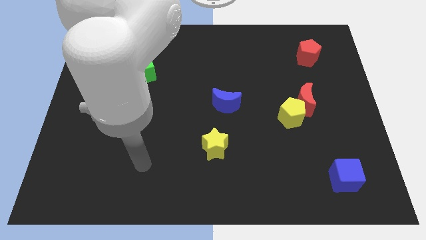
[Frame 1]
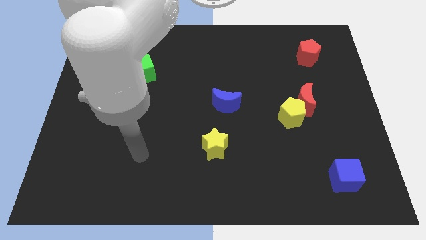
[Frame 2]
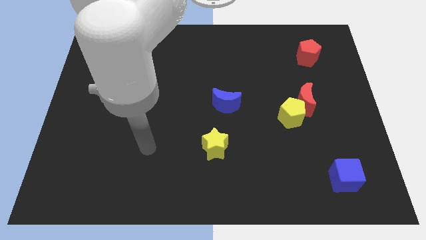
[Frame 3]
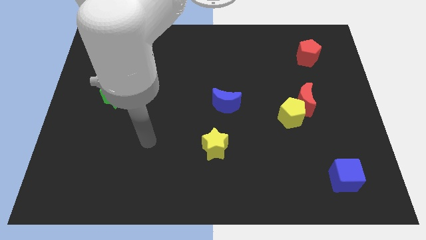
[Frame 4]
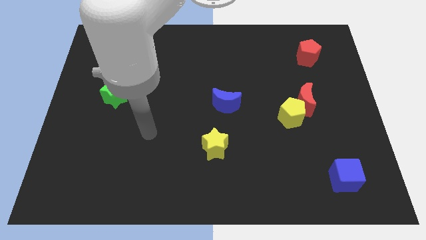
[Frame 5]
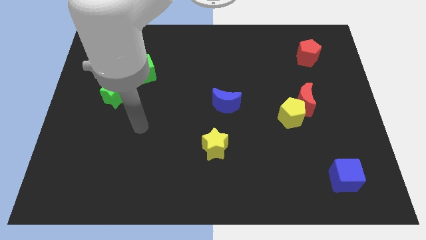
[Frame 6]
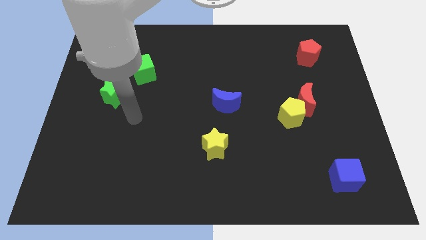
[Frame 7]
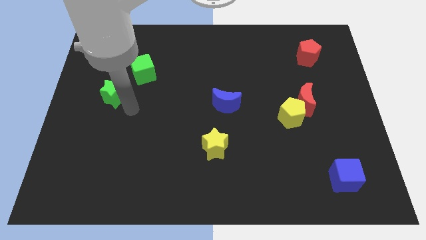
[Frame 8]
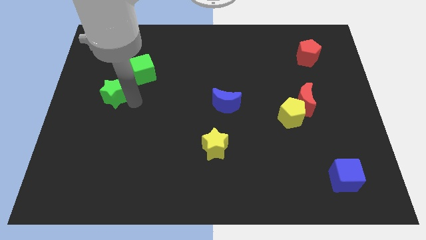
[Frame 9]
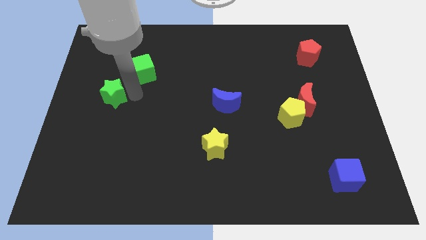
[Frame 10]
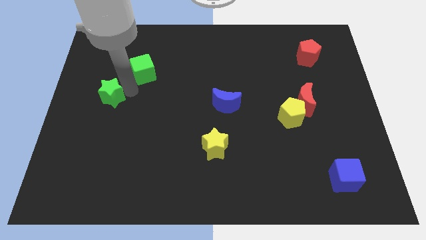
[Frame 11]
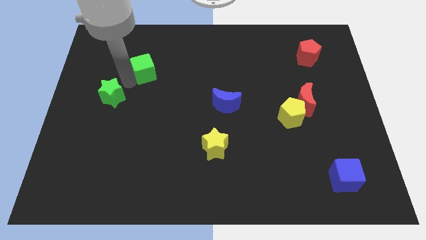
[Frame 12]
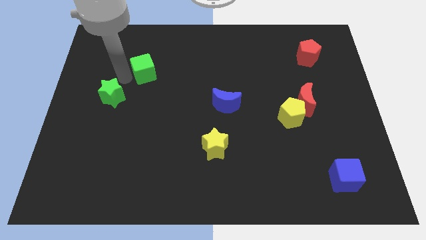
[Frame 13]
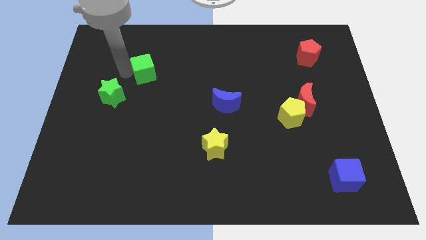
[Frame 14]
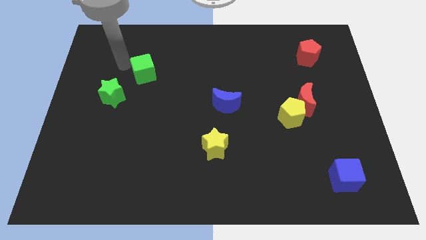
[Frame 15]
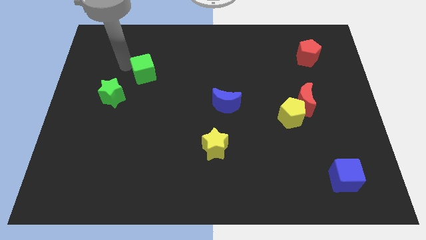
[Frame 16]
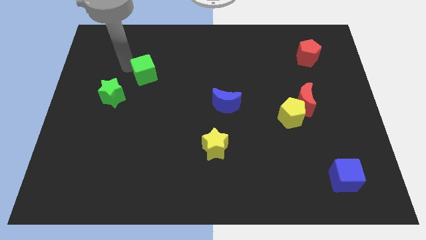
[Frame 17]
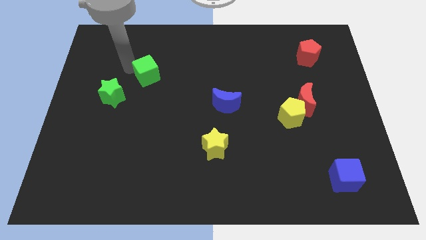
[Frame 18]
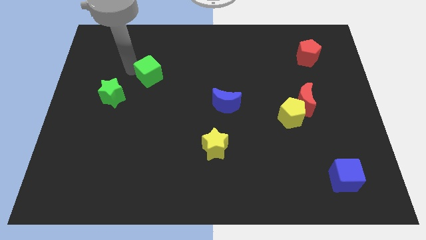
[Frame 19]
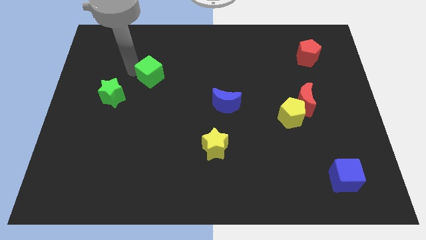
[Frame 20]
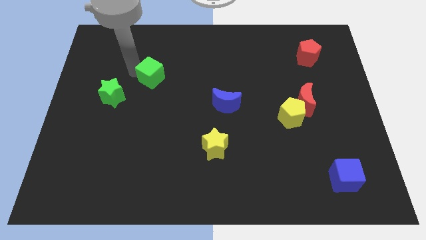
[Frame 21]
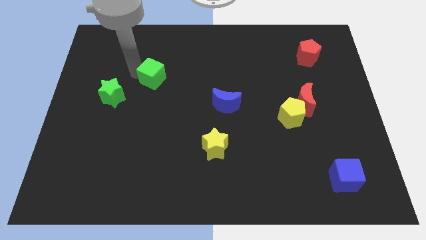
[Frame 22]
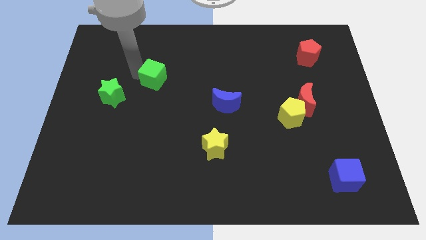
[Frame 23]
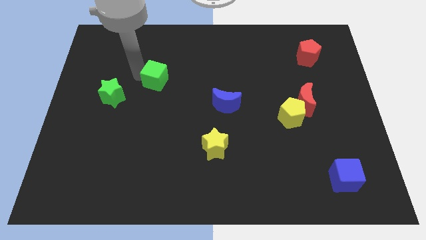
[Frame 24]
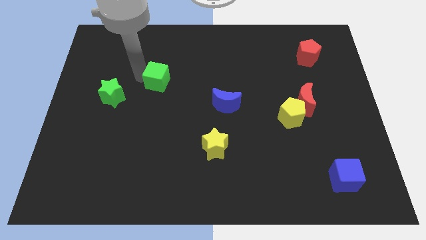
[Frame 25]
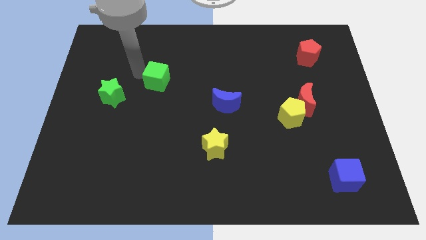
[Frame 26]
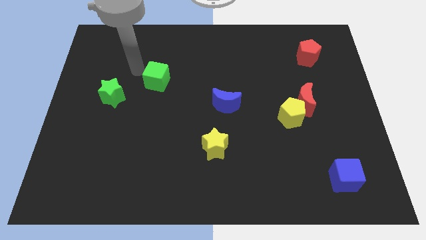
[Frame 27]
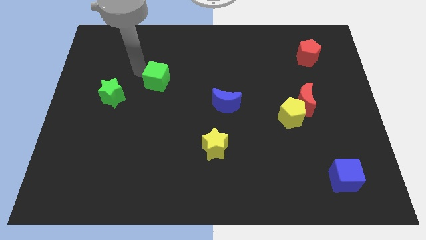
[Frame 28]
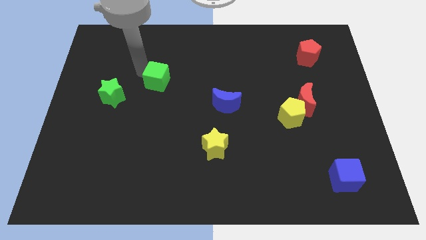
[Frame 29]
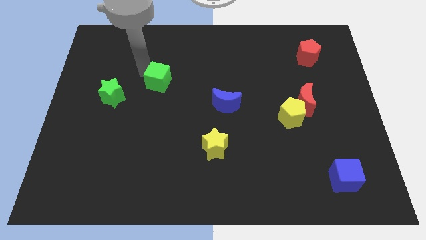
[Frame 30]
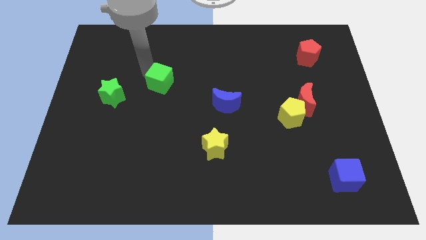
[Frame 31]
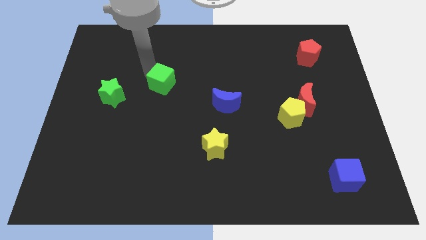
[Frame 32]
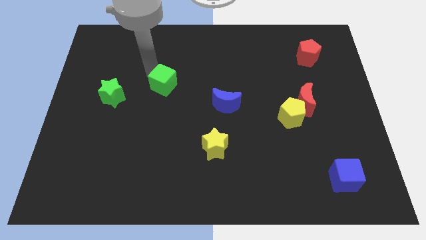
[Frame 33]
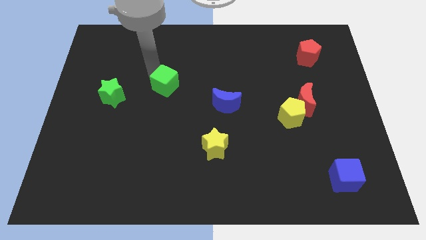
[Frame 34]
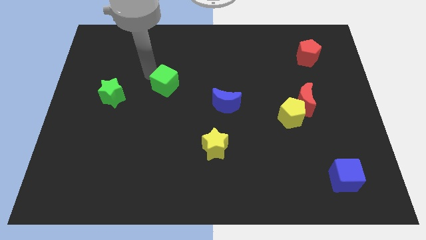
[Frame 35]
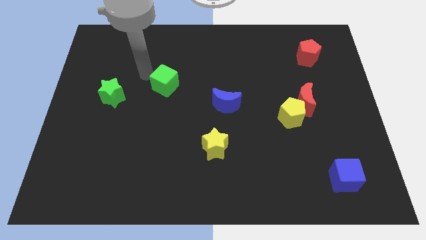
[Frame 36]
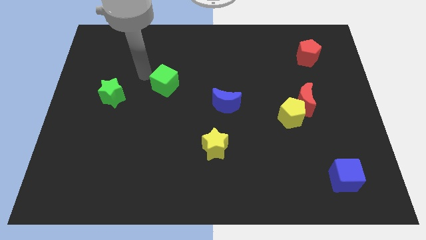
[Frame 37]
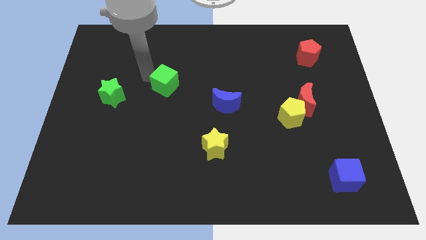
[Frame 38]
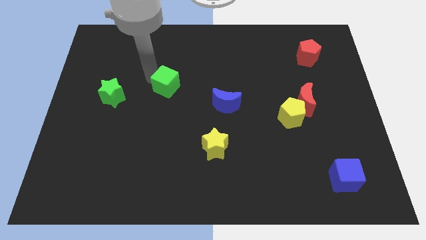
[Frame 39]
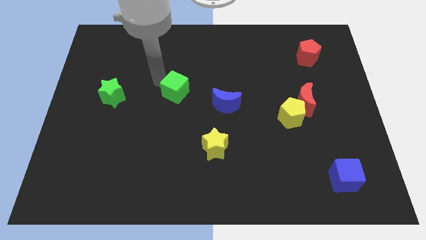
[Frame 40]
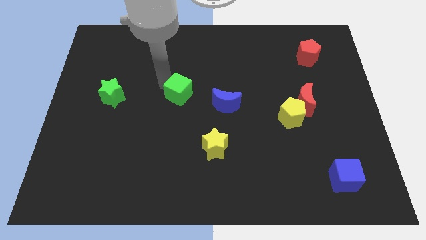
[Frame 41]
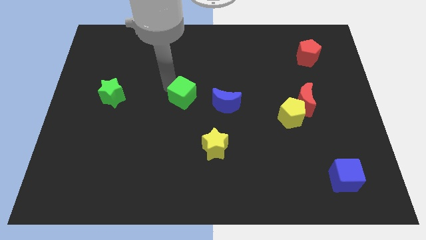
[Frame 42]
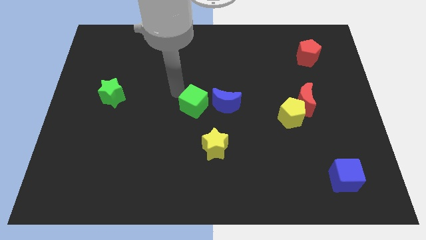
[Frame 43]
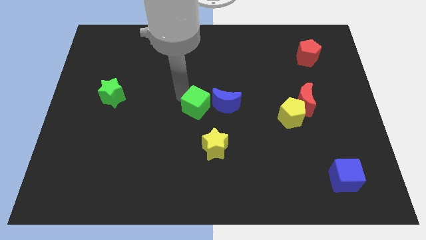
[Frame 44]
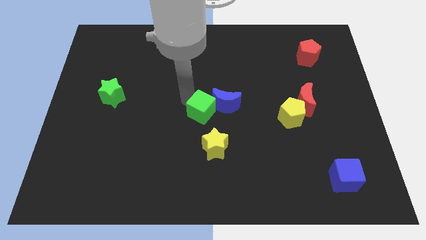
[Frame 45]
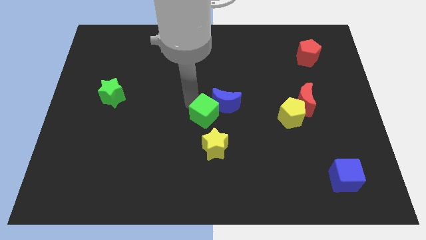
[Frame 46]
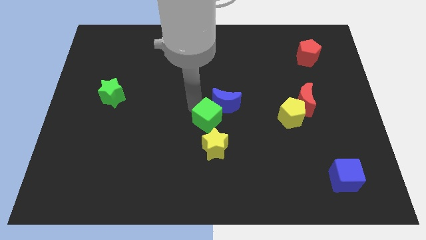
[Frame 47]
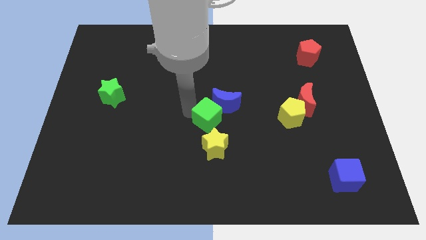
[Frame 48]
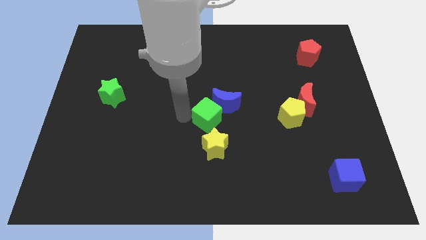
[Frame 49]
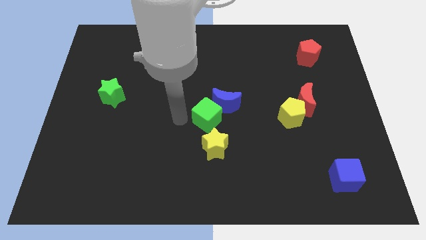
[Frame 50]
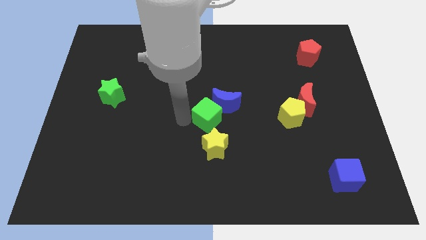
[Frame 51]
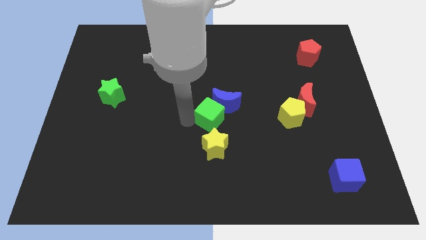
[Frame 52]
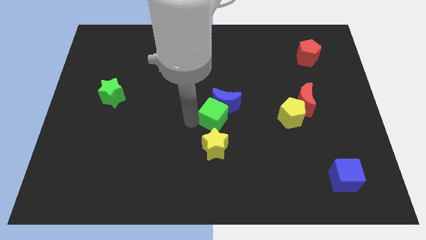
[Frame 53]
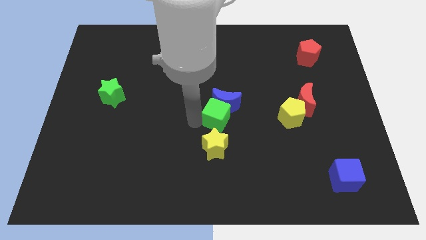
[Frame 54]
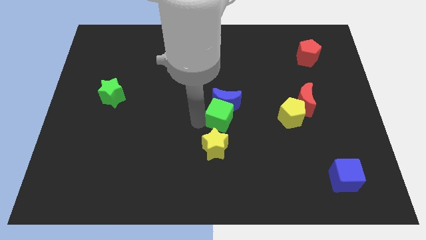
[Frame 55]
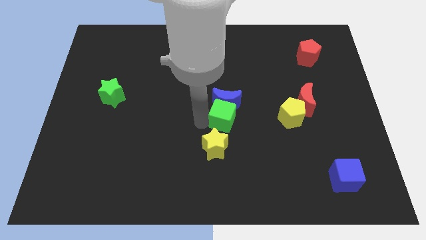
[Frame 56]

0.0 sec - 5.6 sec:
slide the green cube to the left side of the yellow pentagon

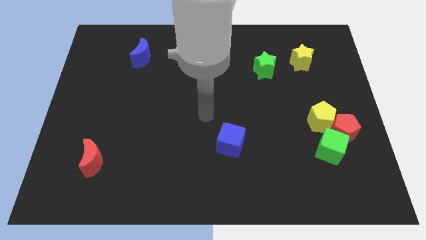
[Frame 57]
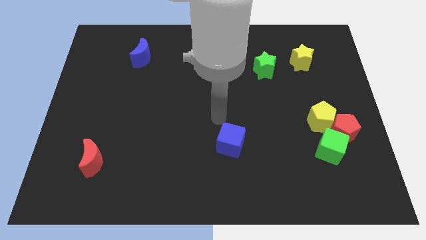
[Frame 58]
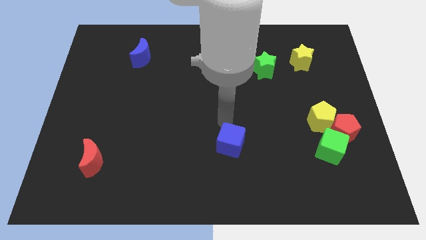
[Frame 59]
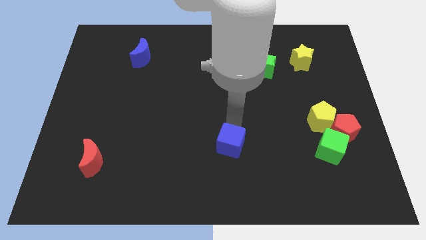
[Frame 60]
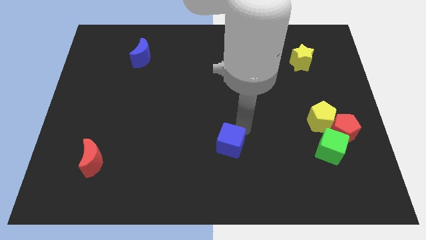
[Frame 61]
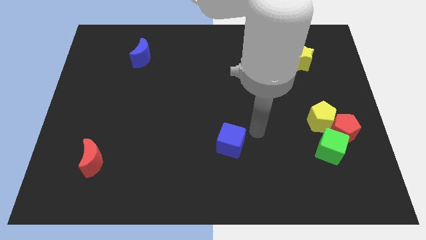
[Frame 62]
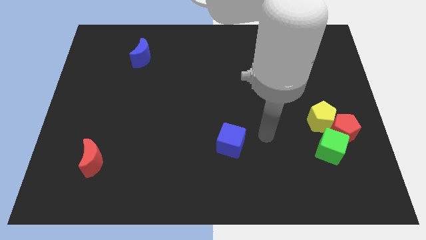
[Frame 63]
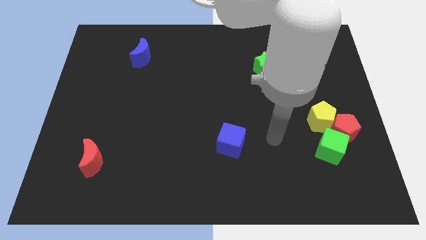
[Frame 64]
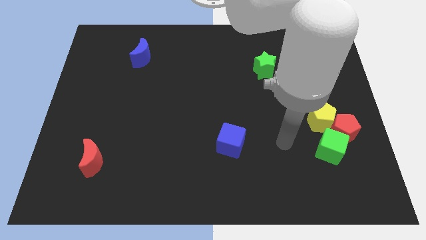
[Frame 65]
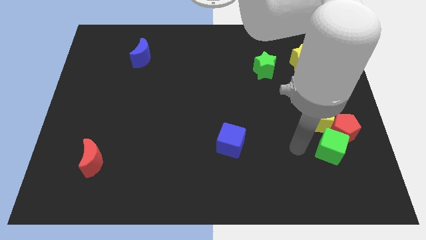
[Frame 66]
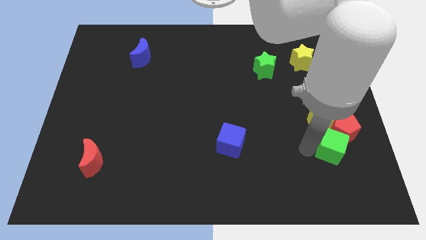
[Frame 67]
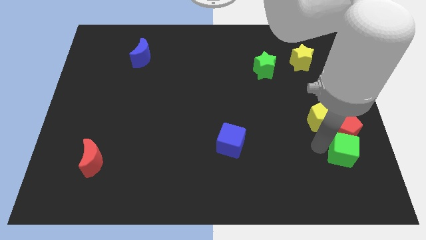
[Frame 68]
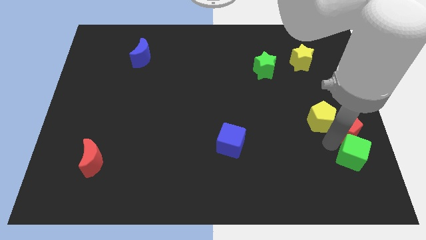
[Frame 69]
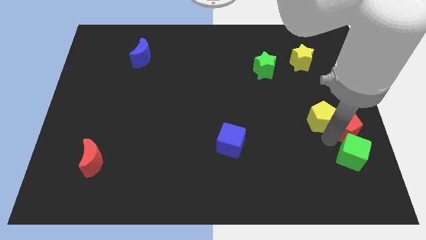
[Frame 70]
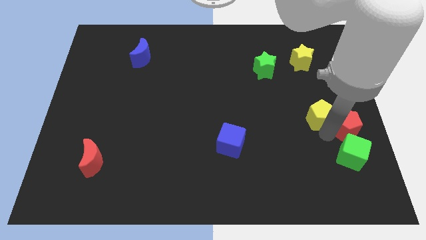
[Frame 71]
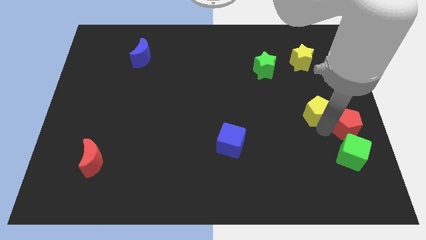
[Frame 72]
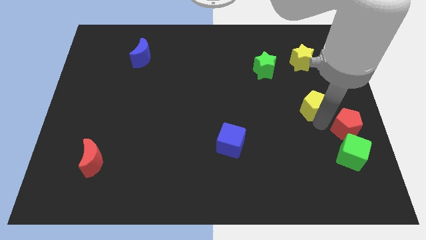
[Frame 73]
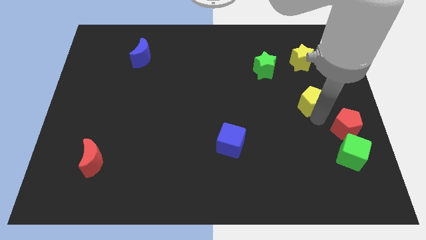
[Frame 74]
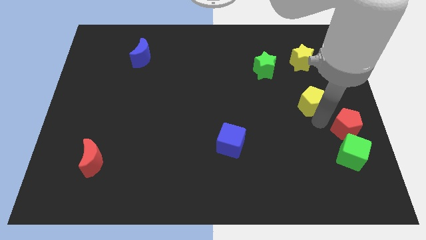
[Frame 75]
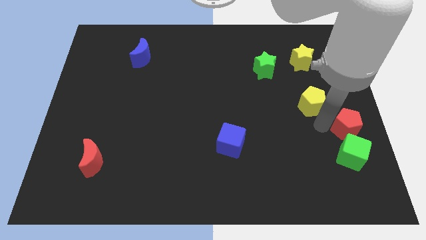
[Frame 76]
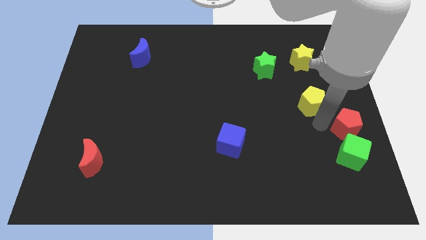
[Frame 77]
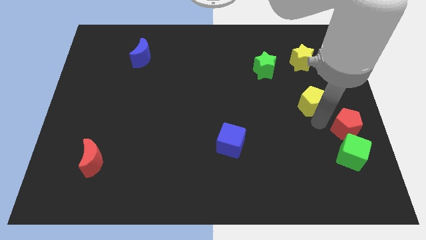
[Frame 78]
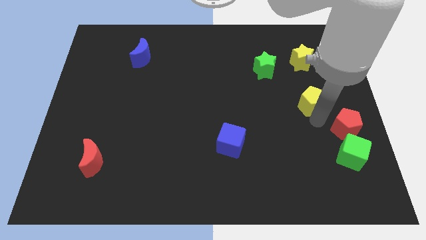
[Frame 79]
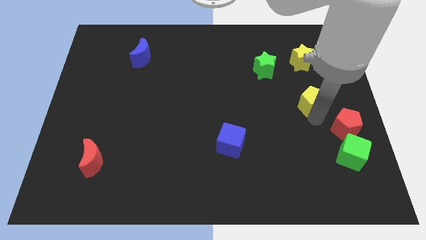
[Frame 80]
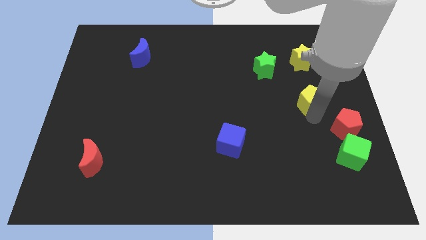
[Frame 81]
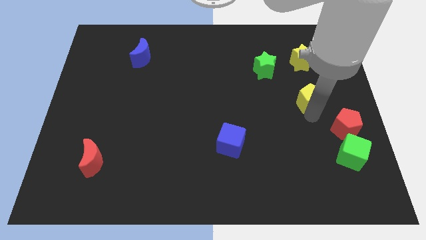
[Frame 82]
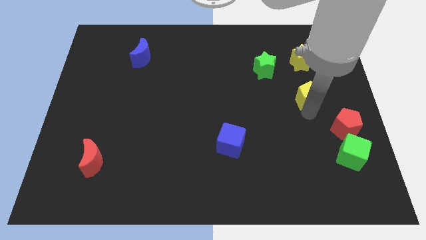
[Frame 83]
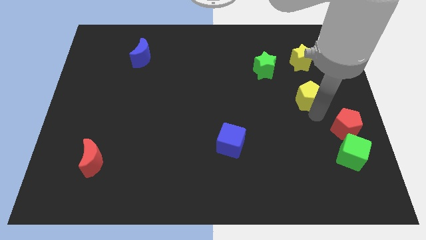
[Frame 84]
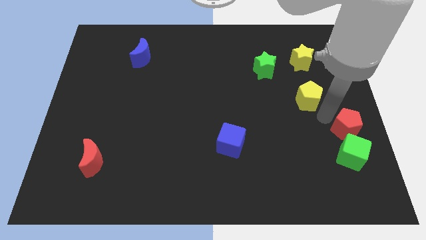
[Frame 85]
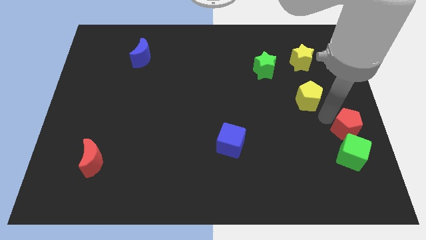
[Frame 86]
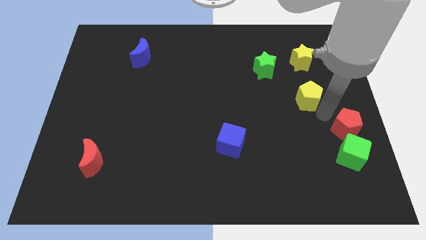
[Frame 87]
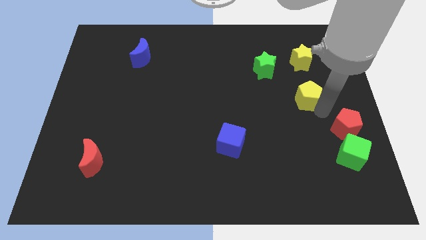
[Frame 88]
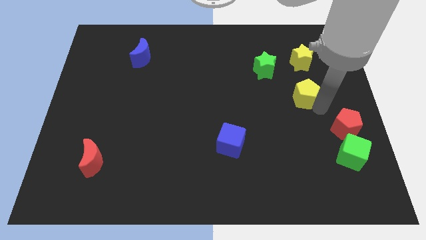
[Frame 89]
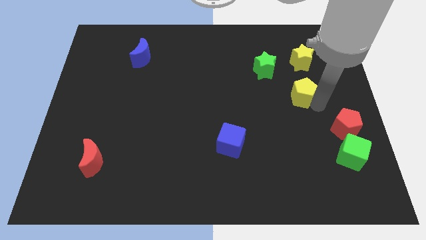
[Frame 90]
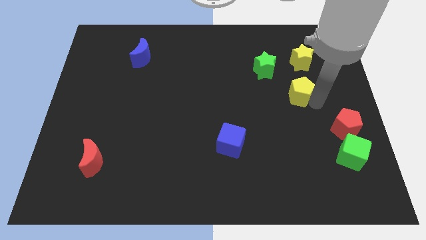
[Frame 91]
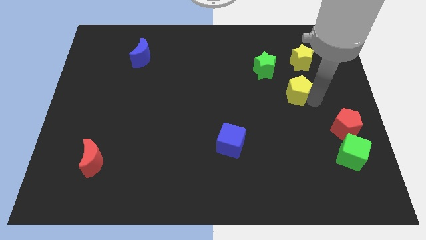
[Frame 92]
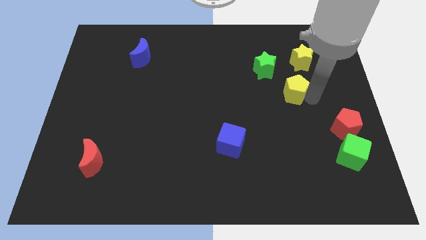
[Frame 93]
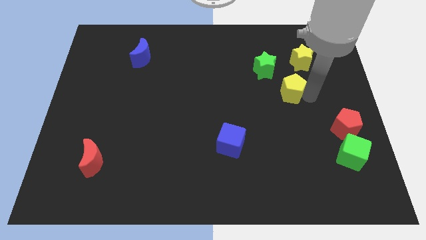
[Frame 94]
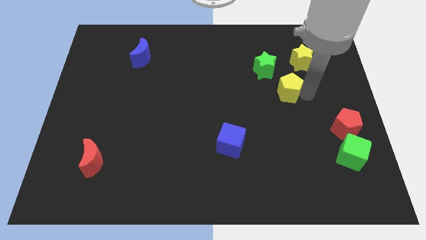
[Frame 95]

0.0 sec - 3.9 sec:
push the yellow pentagon diagonally down and to the left of the yellow star
